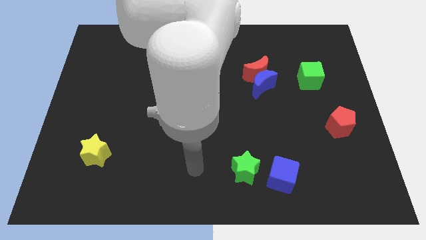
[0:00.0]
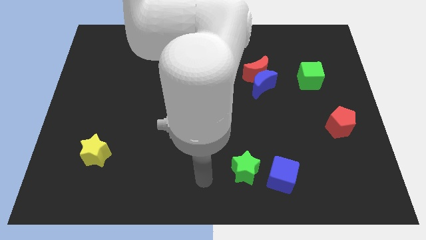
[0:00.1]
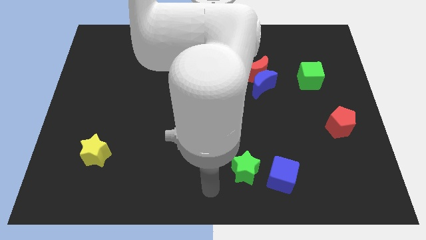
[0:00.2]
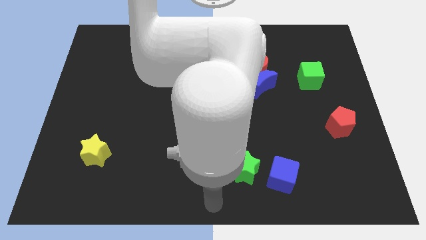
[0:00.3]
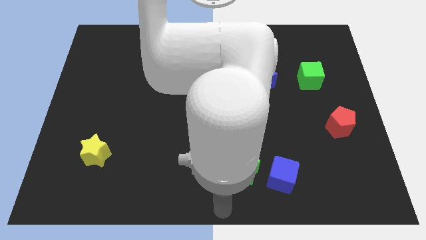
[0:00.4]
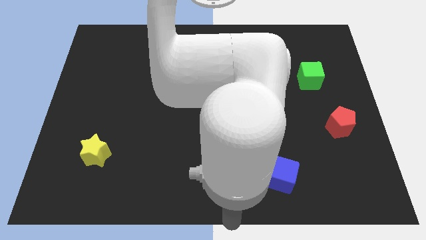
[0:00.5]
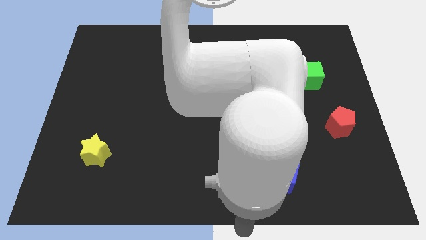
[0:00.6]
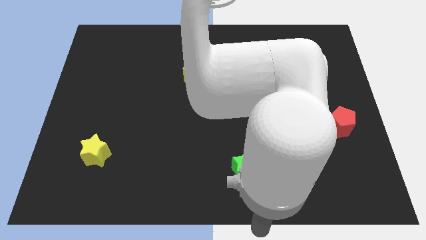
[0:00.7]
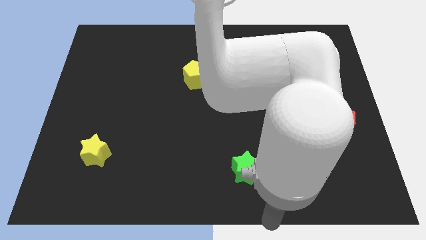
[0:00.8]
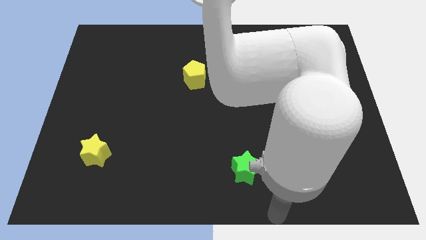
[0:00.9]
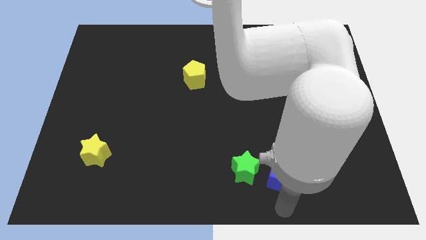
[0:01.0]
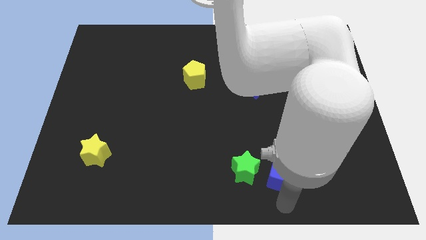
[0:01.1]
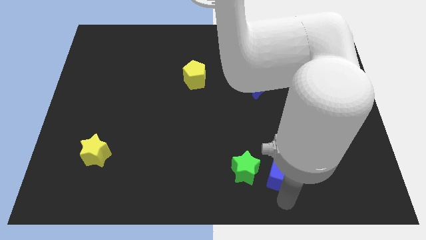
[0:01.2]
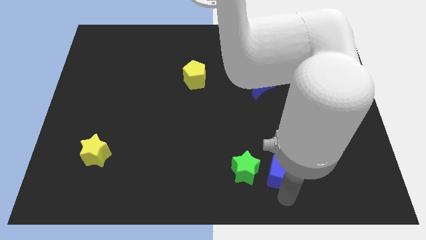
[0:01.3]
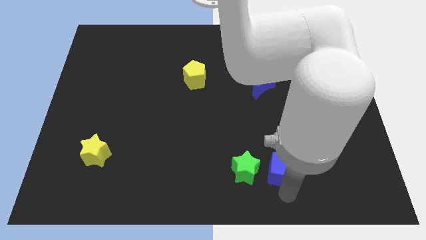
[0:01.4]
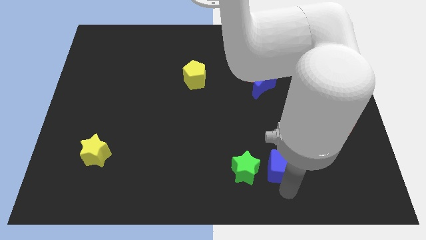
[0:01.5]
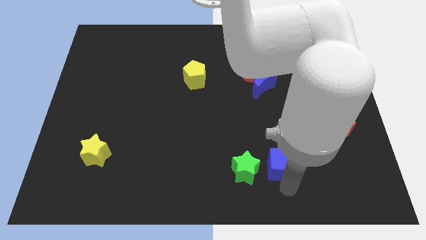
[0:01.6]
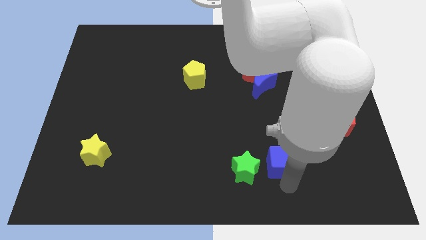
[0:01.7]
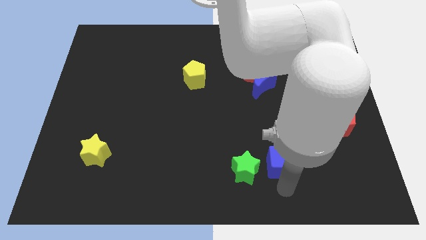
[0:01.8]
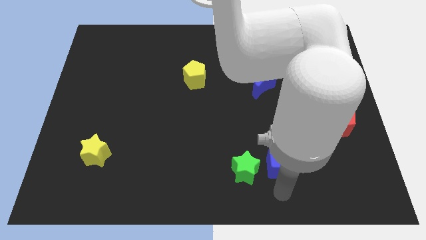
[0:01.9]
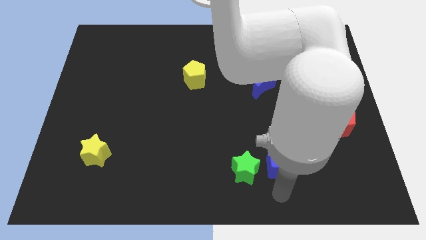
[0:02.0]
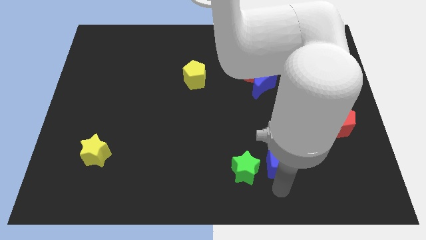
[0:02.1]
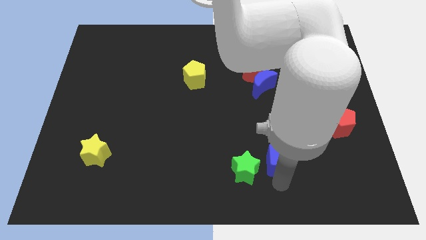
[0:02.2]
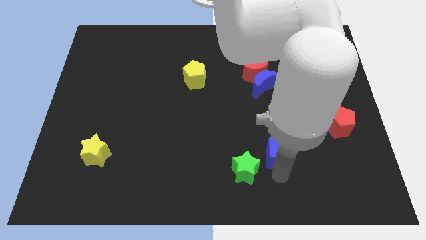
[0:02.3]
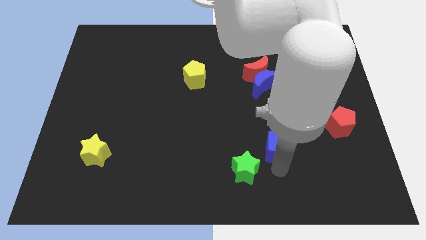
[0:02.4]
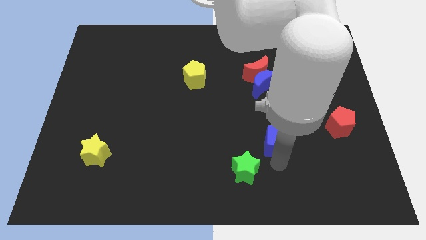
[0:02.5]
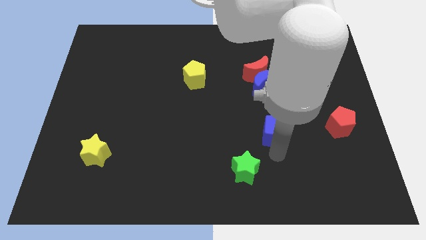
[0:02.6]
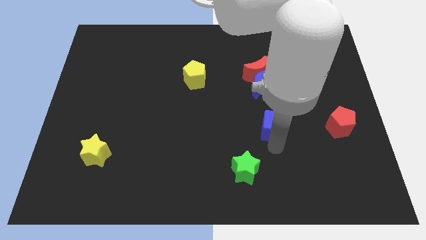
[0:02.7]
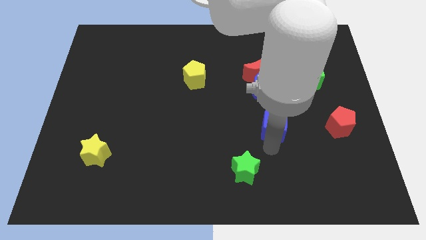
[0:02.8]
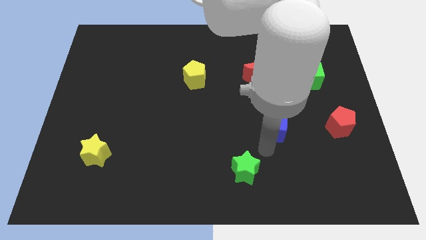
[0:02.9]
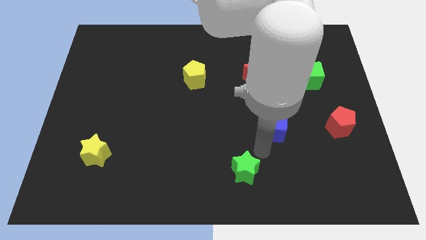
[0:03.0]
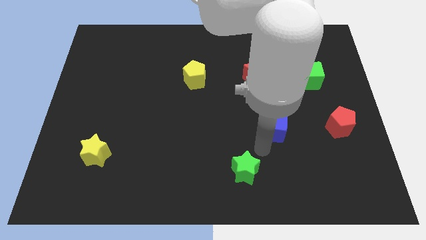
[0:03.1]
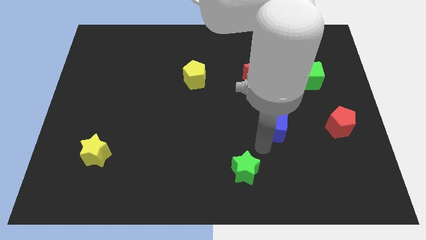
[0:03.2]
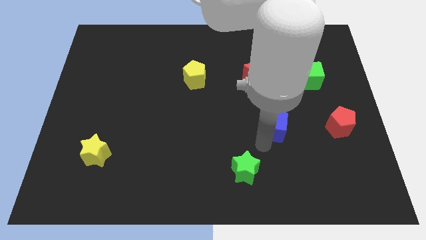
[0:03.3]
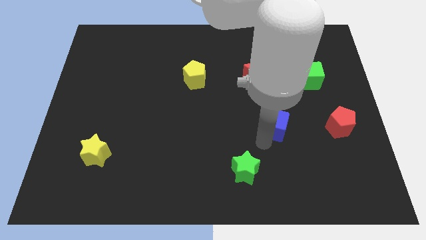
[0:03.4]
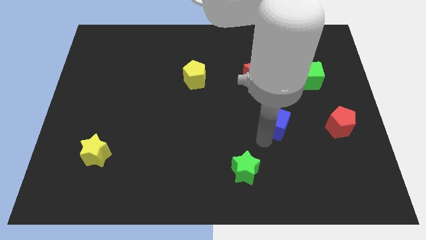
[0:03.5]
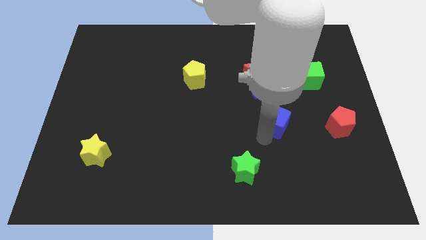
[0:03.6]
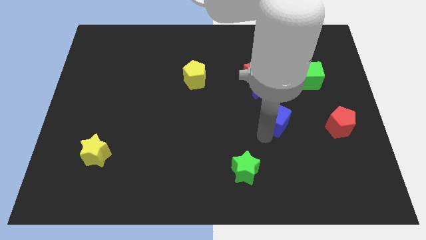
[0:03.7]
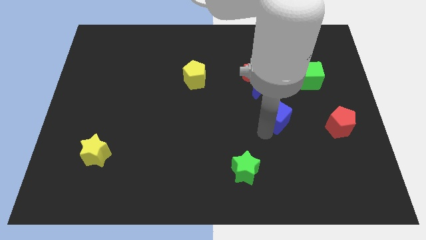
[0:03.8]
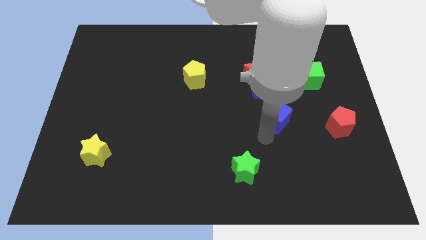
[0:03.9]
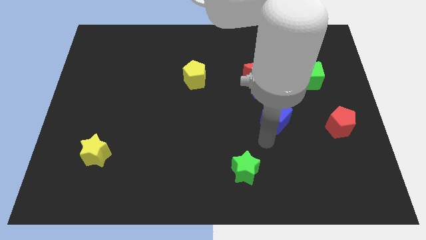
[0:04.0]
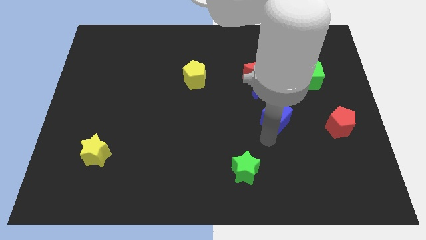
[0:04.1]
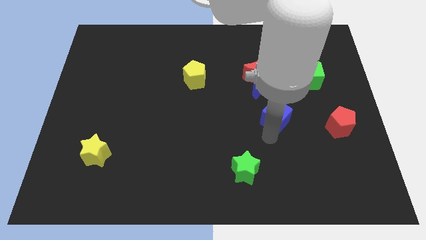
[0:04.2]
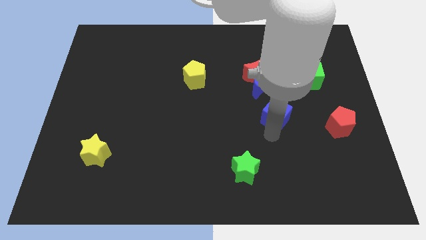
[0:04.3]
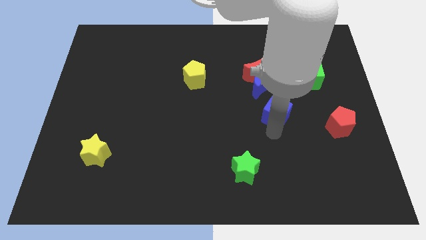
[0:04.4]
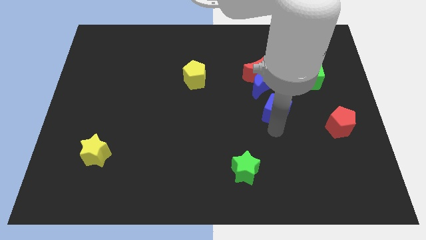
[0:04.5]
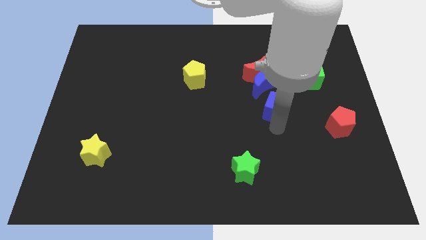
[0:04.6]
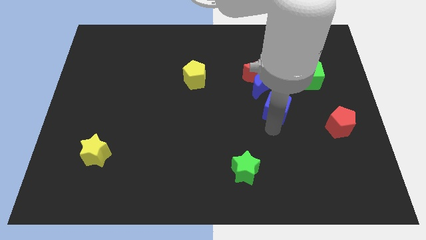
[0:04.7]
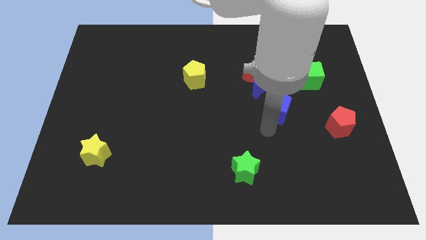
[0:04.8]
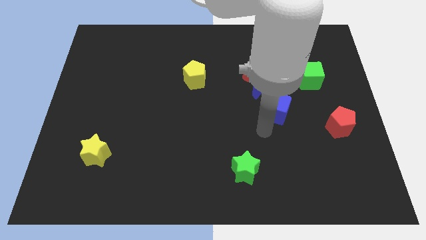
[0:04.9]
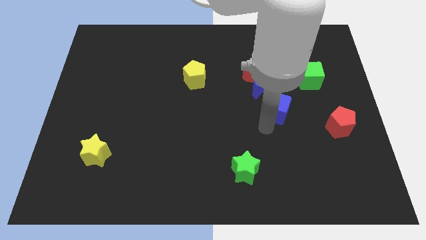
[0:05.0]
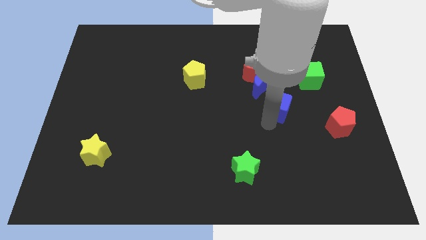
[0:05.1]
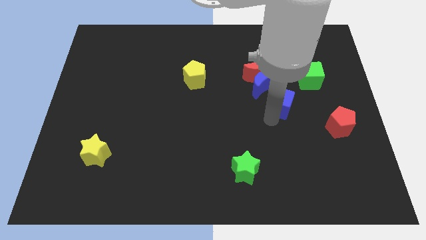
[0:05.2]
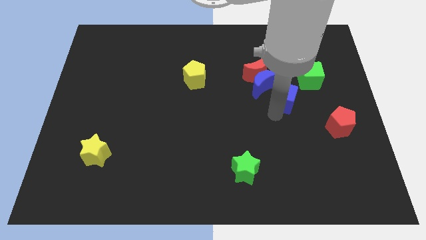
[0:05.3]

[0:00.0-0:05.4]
push the blue cube up

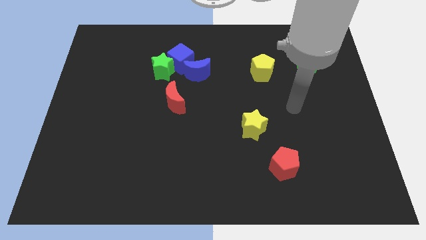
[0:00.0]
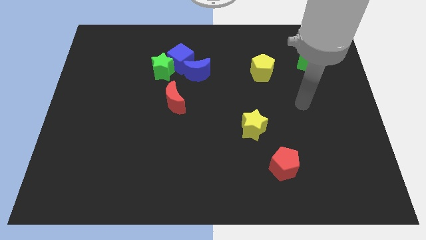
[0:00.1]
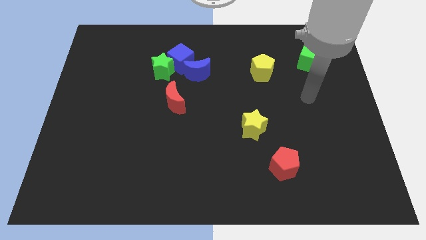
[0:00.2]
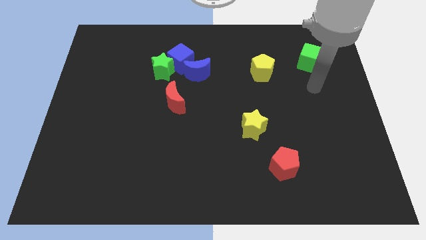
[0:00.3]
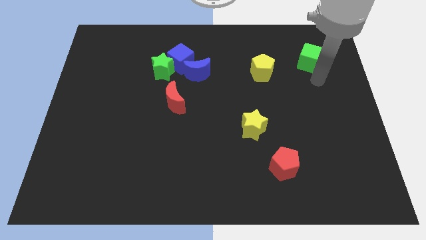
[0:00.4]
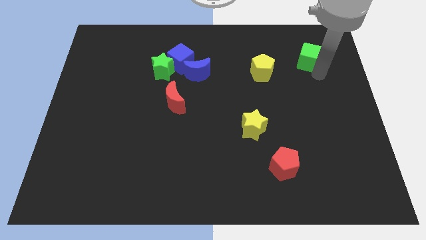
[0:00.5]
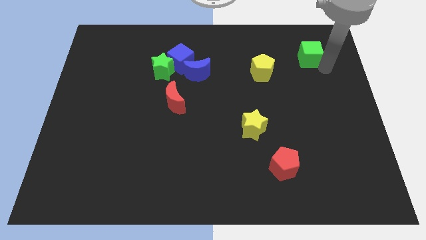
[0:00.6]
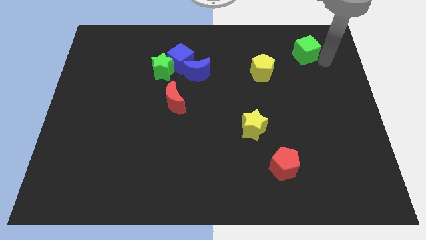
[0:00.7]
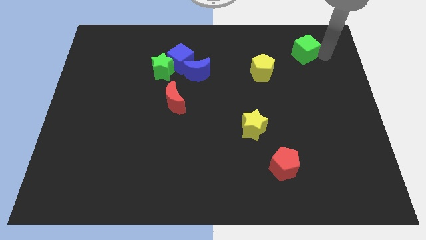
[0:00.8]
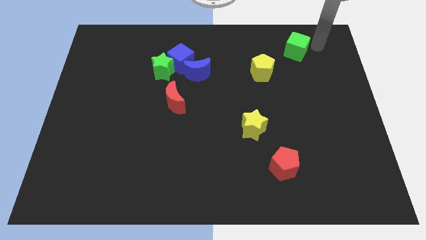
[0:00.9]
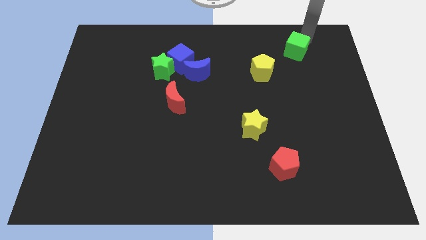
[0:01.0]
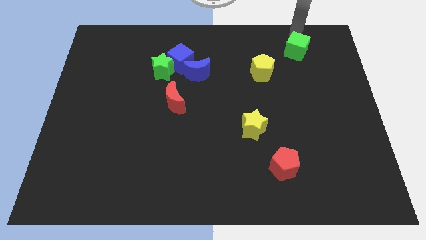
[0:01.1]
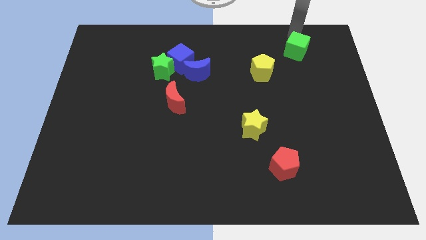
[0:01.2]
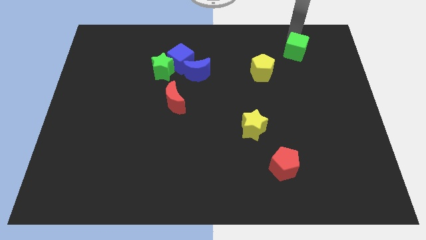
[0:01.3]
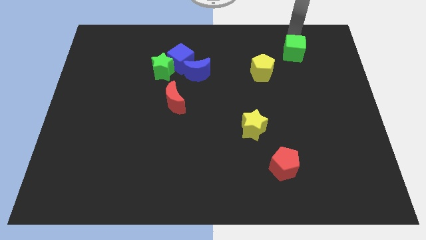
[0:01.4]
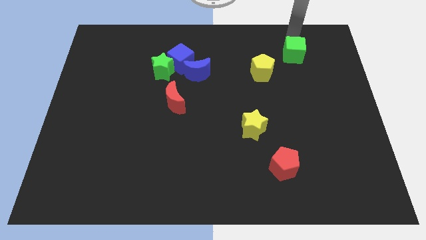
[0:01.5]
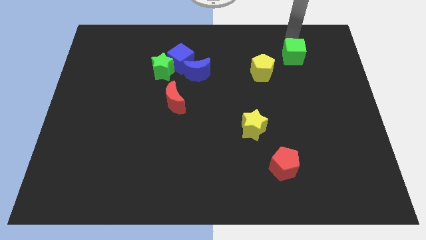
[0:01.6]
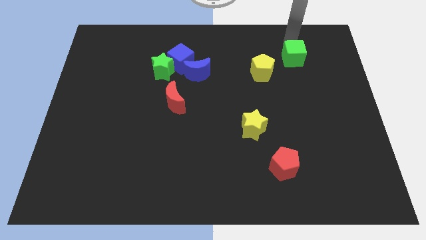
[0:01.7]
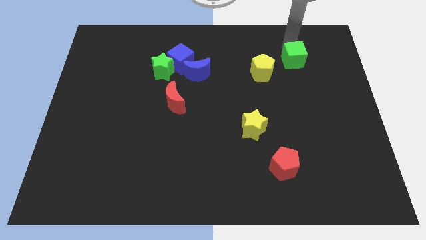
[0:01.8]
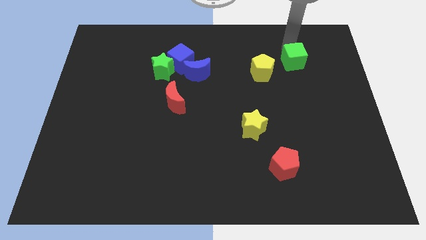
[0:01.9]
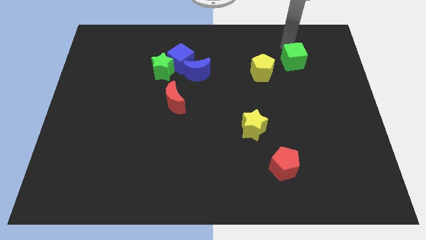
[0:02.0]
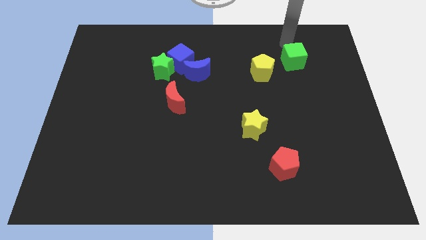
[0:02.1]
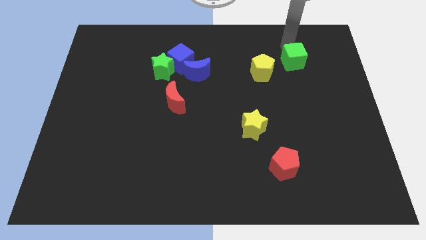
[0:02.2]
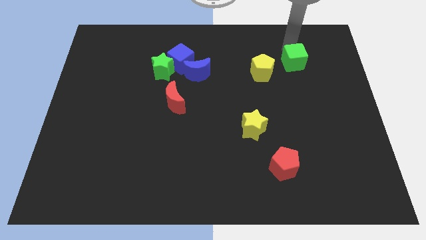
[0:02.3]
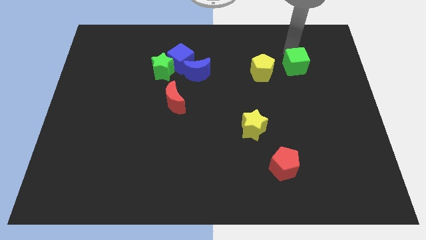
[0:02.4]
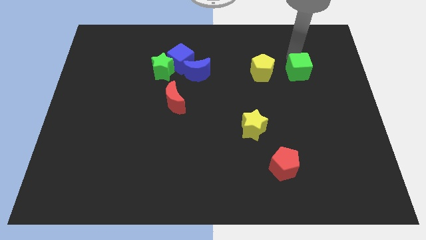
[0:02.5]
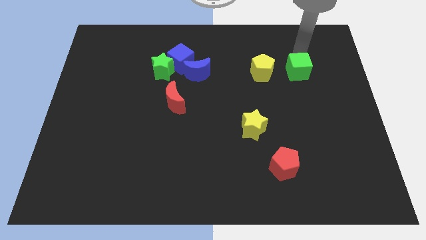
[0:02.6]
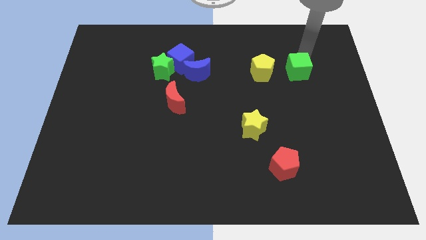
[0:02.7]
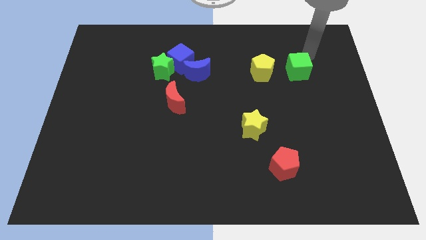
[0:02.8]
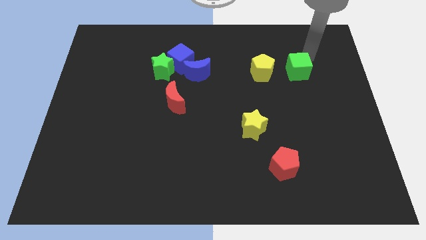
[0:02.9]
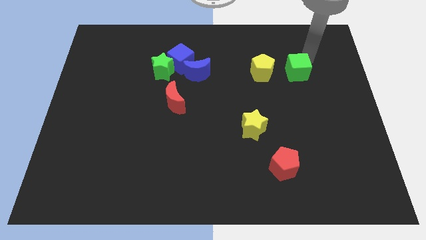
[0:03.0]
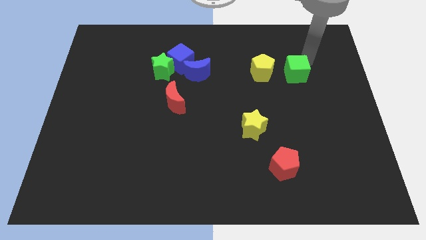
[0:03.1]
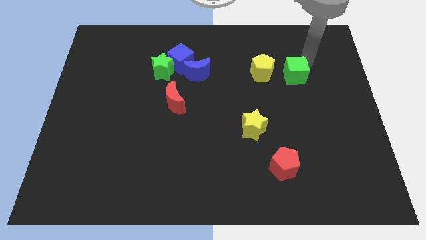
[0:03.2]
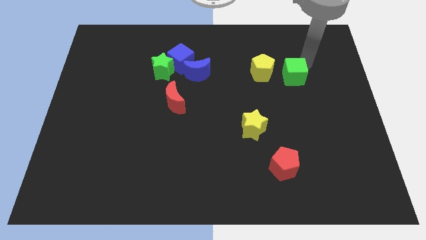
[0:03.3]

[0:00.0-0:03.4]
move the green cube a bit downwards and left diagonally
